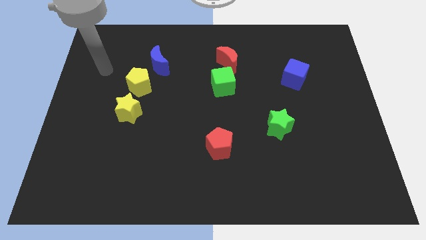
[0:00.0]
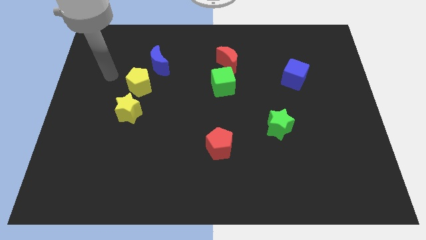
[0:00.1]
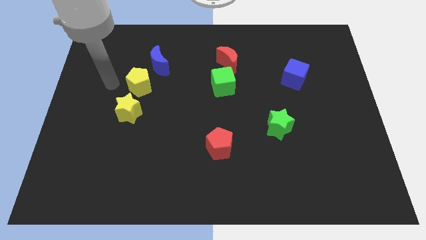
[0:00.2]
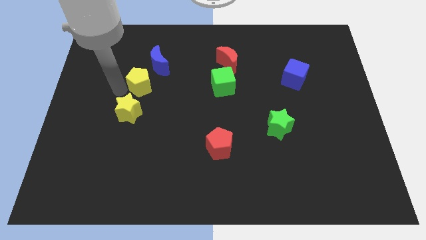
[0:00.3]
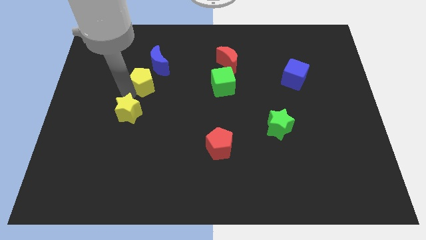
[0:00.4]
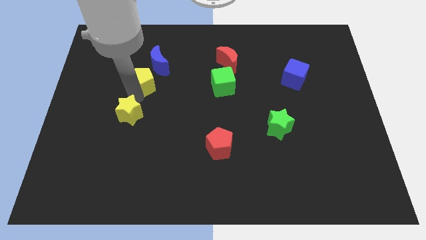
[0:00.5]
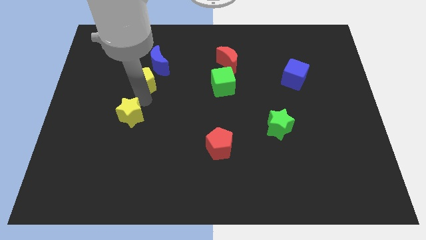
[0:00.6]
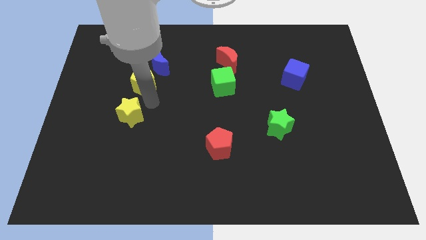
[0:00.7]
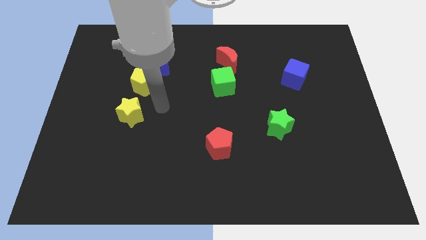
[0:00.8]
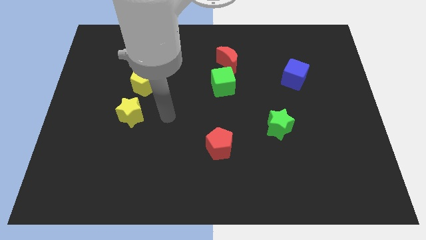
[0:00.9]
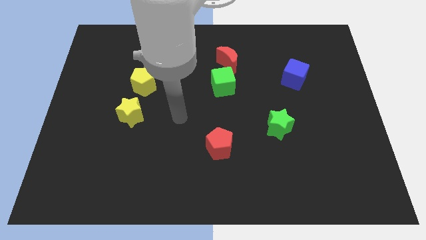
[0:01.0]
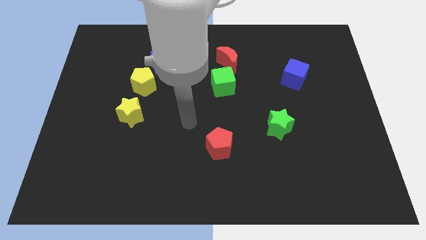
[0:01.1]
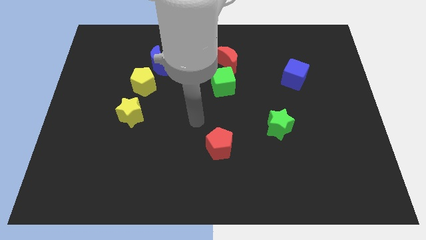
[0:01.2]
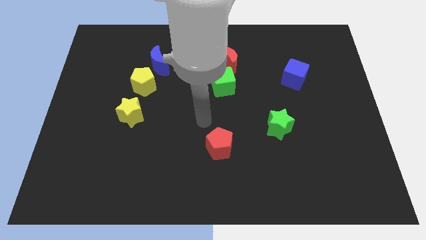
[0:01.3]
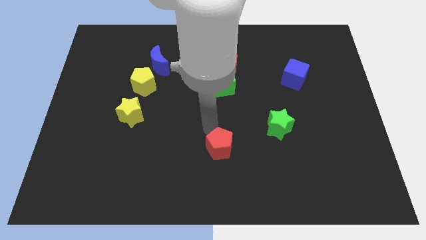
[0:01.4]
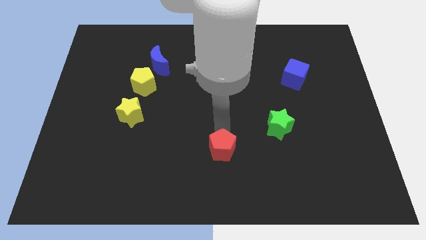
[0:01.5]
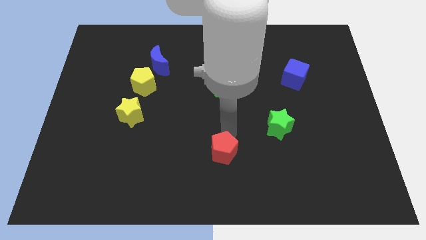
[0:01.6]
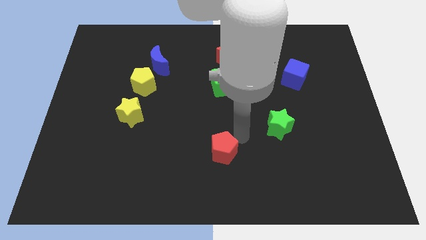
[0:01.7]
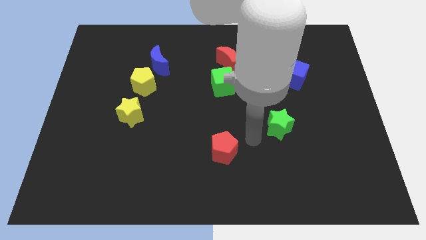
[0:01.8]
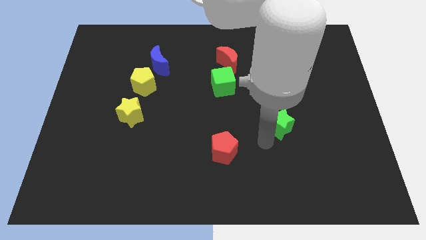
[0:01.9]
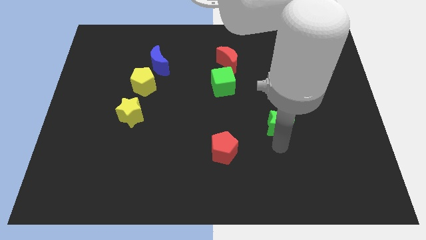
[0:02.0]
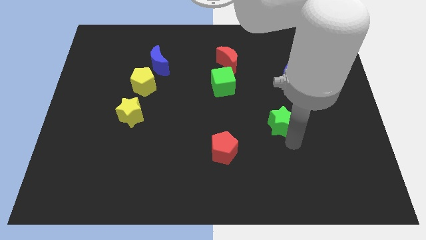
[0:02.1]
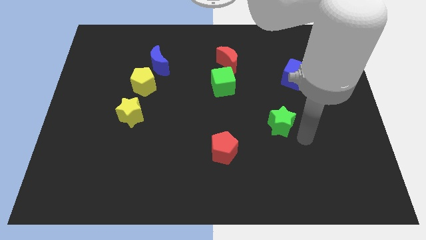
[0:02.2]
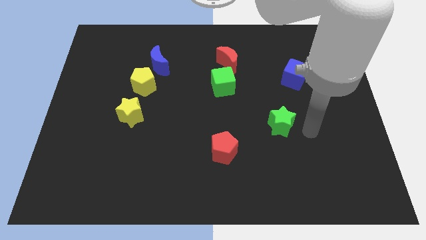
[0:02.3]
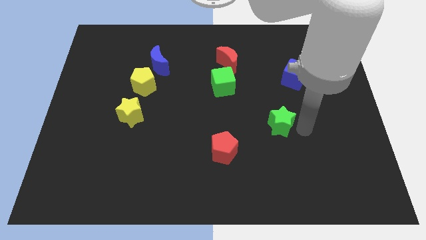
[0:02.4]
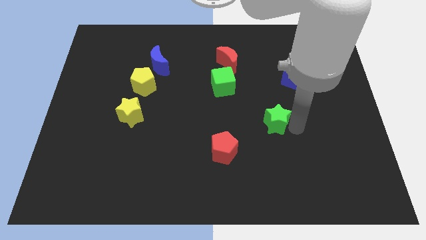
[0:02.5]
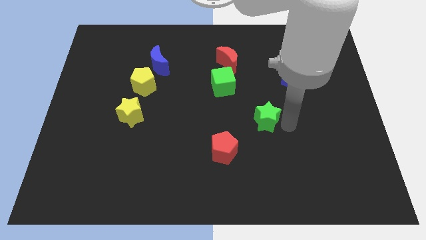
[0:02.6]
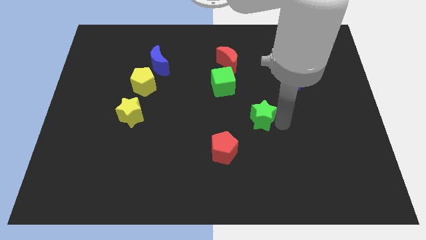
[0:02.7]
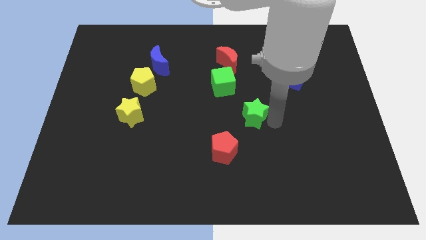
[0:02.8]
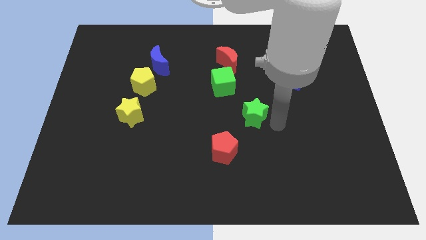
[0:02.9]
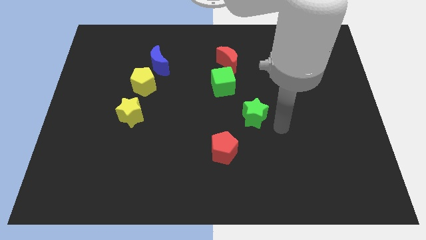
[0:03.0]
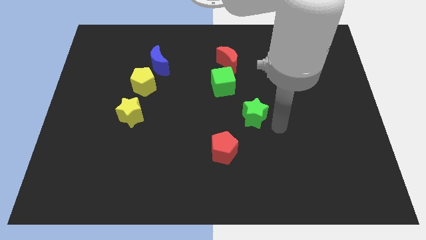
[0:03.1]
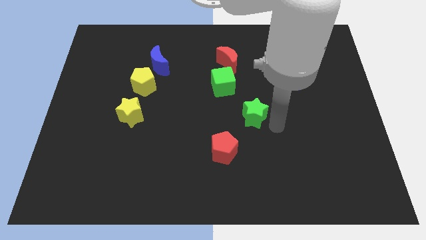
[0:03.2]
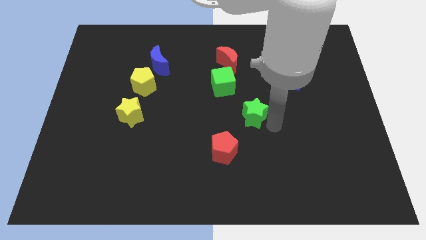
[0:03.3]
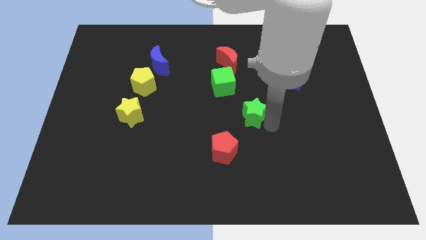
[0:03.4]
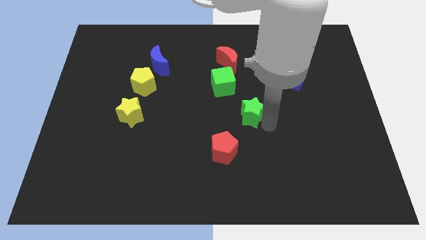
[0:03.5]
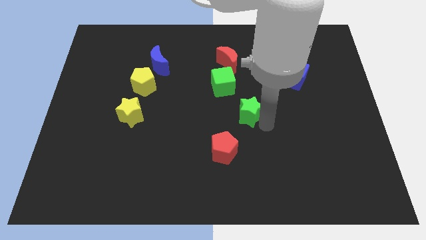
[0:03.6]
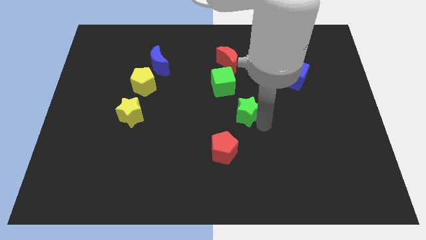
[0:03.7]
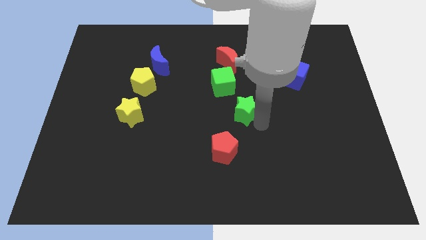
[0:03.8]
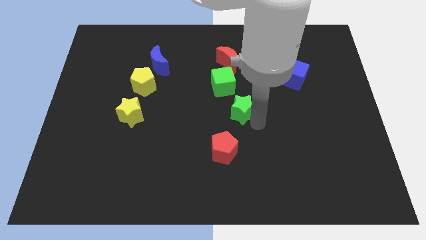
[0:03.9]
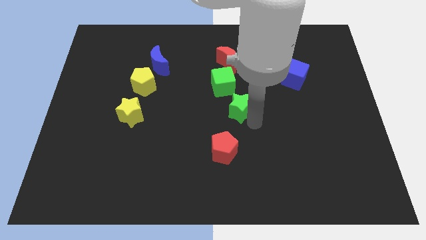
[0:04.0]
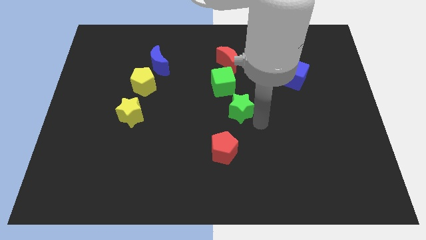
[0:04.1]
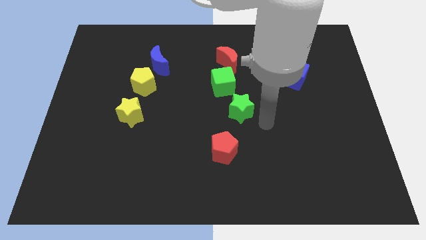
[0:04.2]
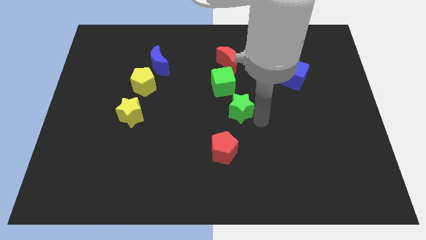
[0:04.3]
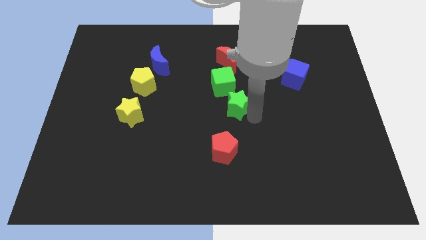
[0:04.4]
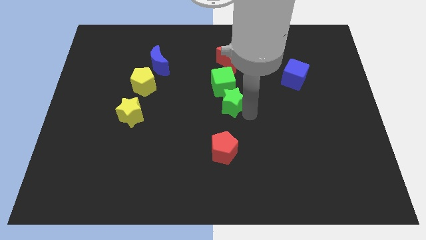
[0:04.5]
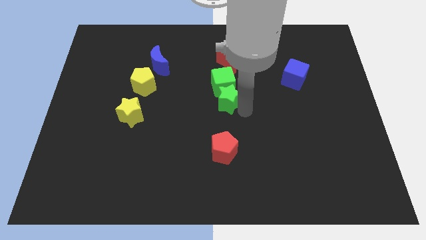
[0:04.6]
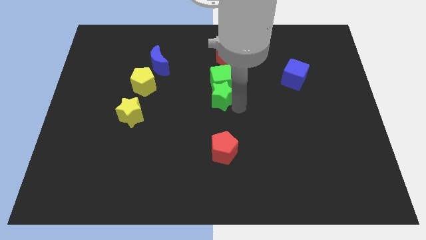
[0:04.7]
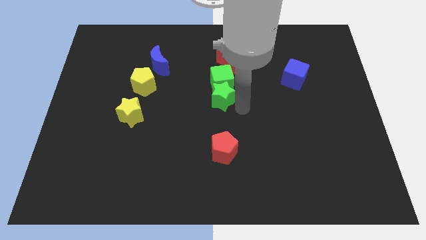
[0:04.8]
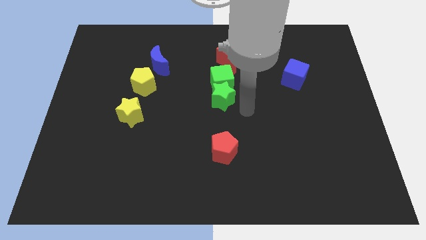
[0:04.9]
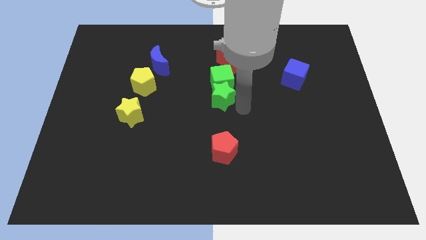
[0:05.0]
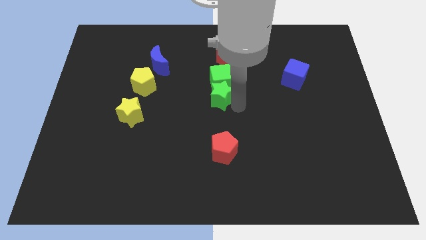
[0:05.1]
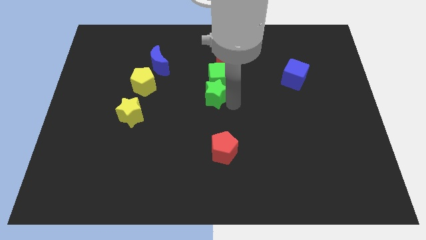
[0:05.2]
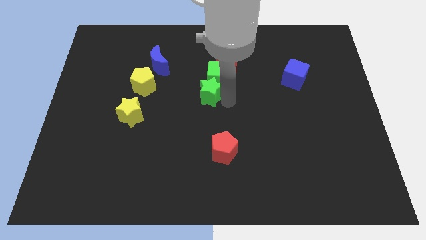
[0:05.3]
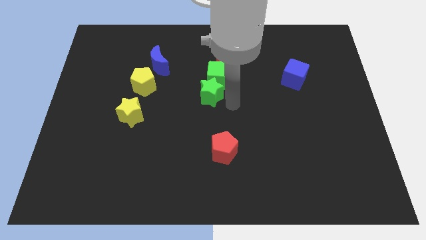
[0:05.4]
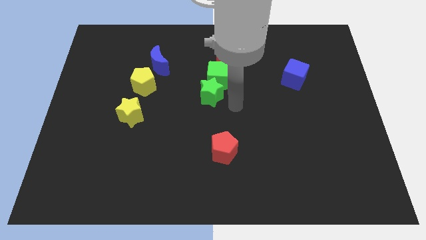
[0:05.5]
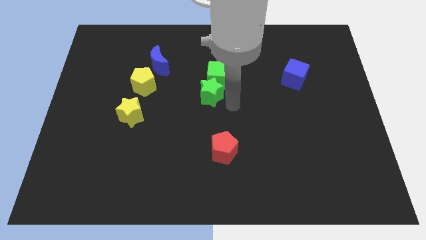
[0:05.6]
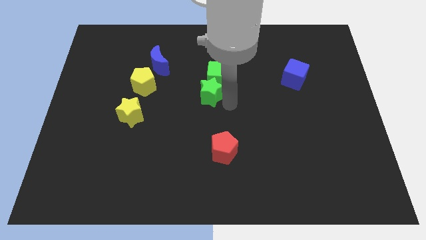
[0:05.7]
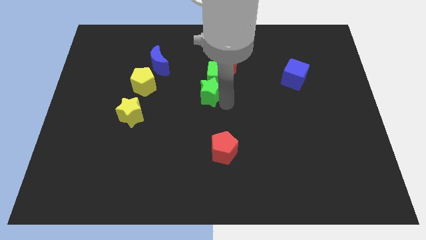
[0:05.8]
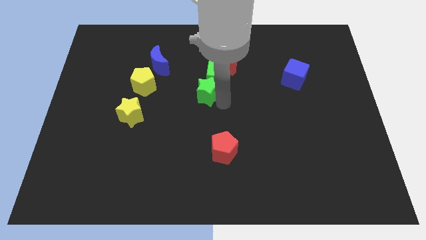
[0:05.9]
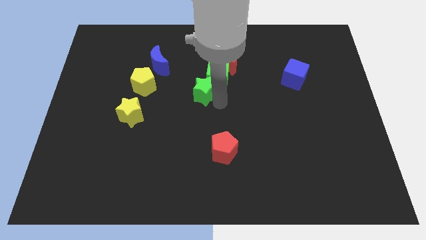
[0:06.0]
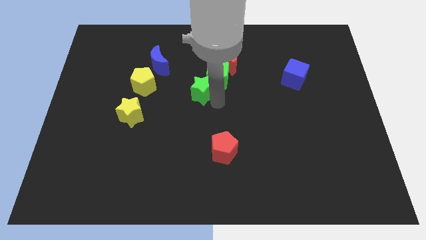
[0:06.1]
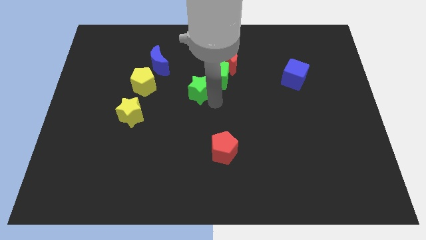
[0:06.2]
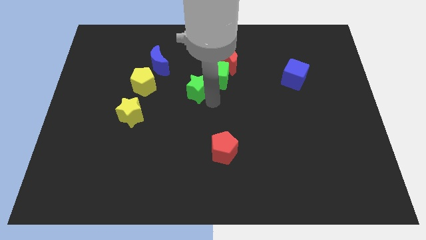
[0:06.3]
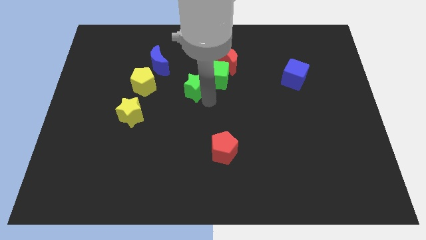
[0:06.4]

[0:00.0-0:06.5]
slide the green star diagonally upwards and to the left

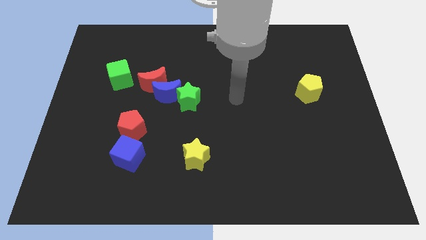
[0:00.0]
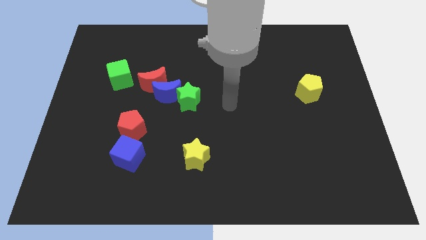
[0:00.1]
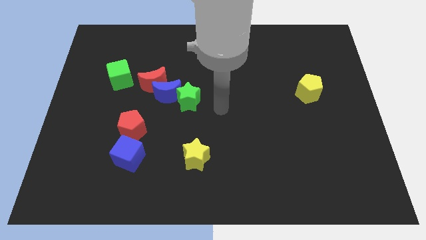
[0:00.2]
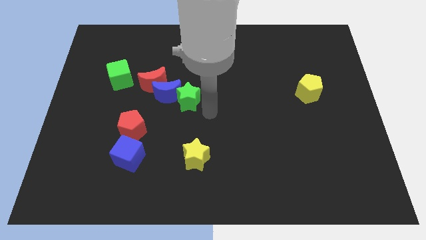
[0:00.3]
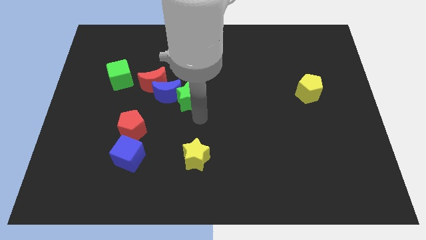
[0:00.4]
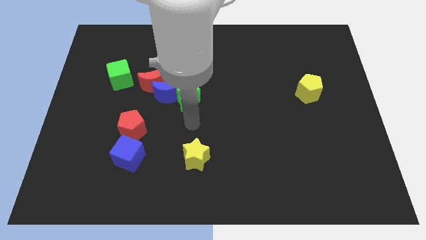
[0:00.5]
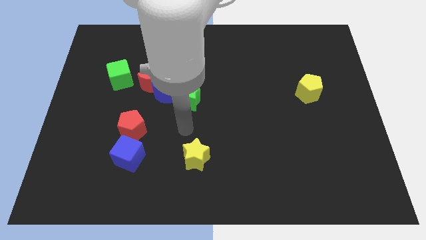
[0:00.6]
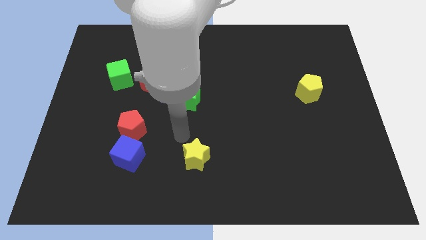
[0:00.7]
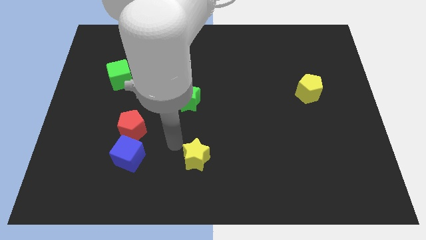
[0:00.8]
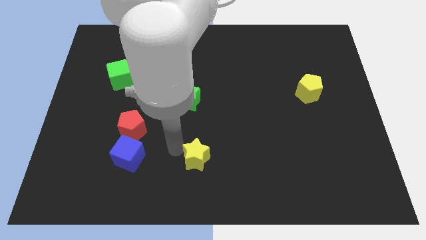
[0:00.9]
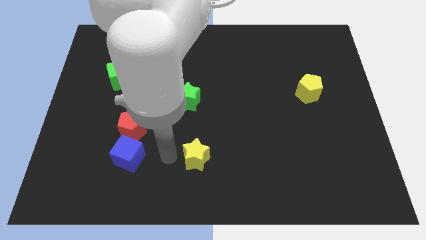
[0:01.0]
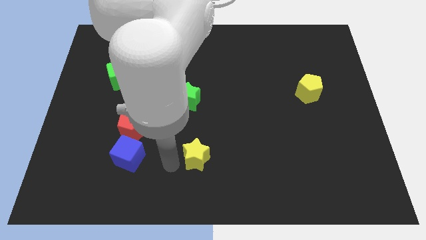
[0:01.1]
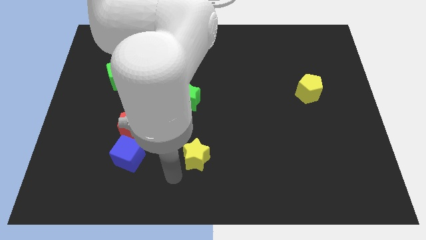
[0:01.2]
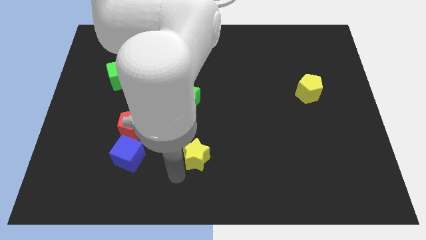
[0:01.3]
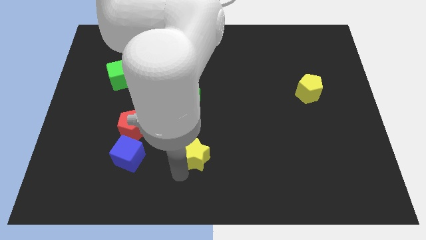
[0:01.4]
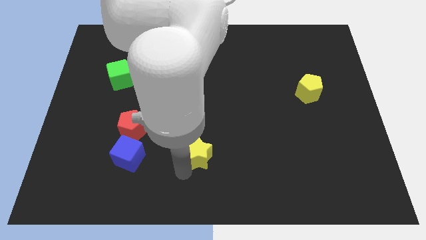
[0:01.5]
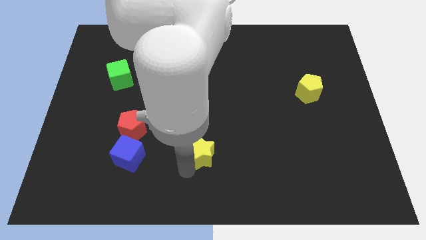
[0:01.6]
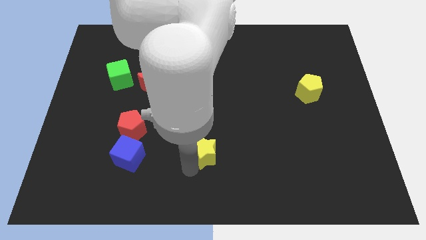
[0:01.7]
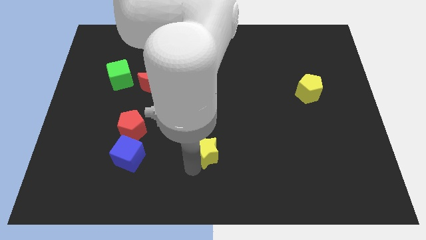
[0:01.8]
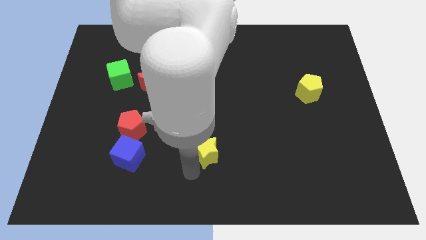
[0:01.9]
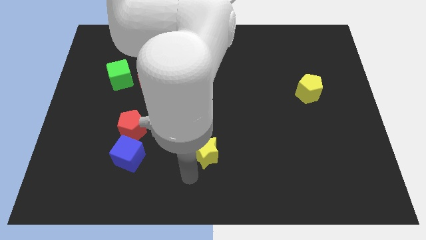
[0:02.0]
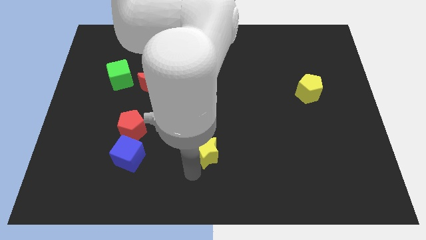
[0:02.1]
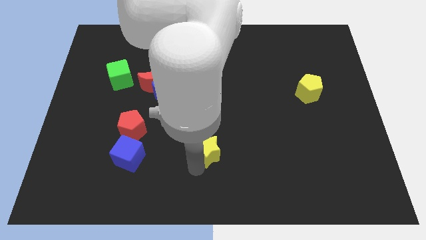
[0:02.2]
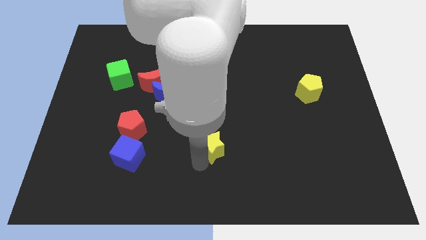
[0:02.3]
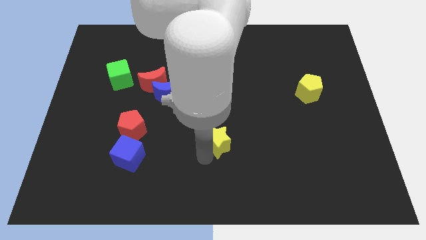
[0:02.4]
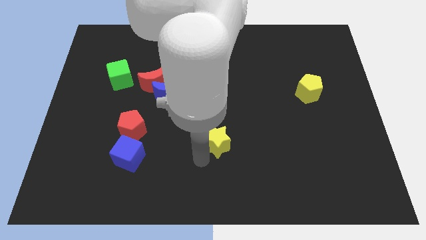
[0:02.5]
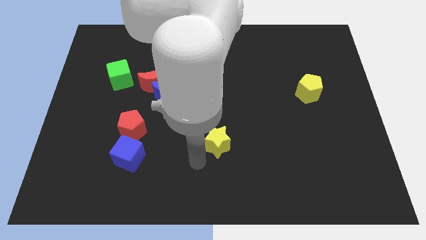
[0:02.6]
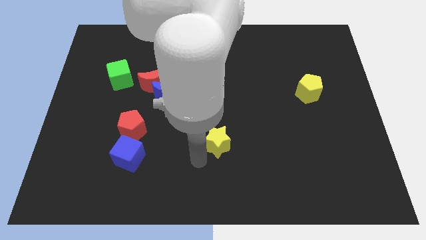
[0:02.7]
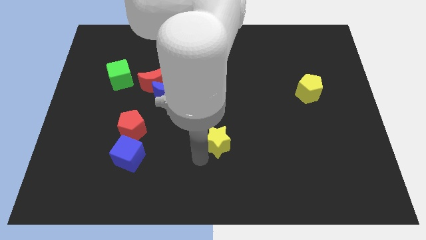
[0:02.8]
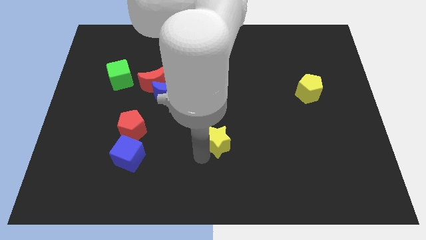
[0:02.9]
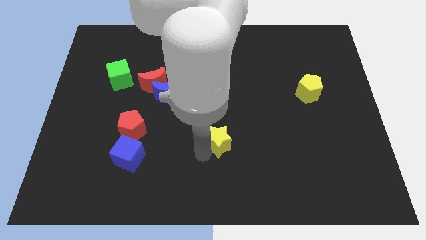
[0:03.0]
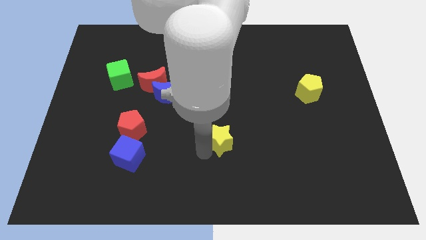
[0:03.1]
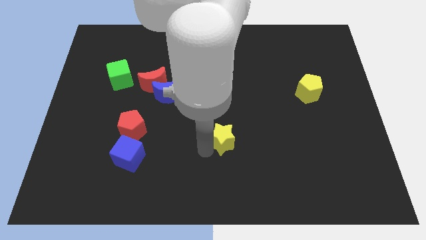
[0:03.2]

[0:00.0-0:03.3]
slightly slide the yellow star up and right diagonally
